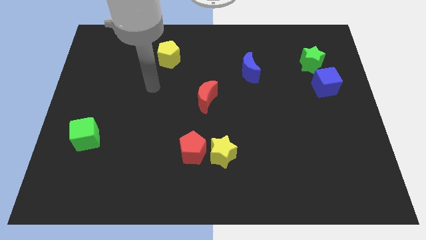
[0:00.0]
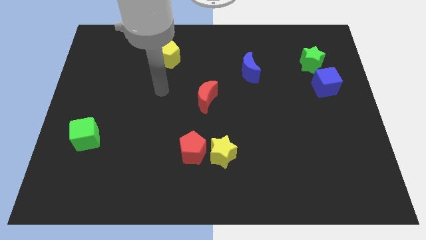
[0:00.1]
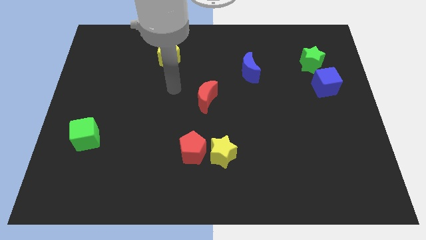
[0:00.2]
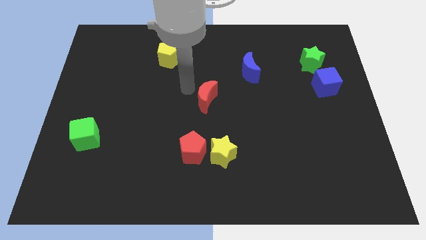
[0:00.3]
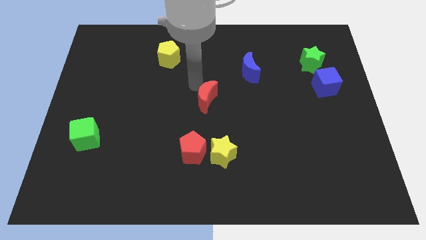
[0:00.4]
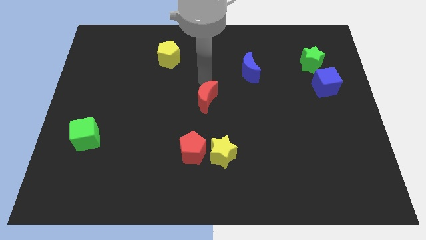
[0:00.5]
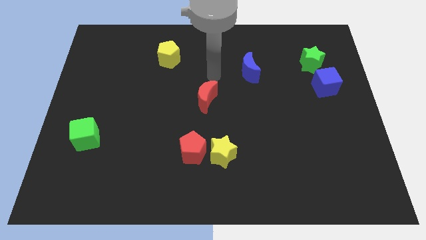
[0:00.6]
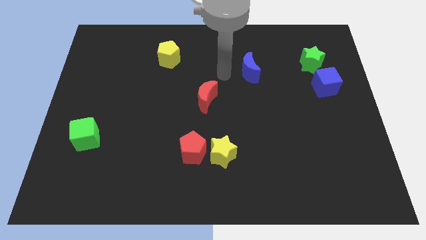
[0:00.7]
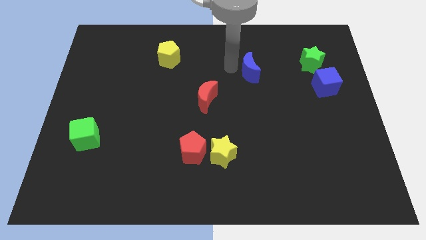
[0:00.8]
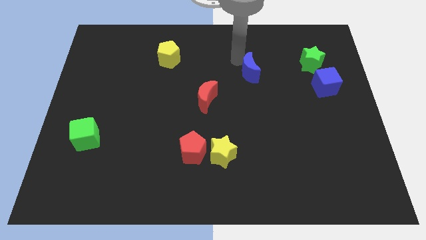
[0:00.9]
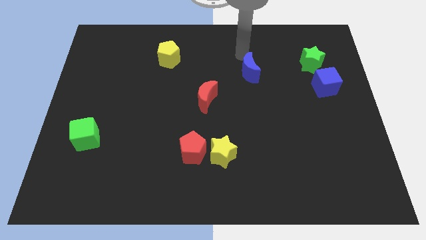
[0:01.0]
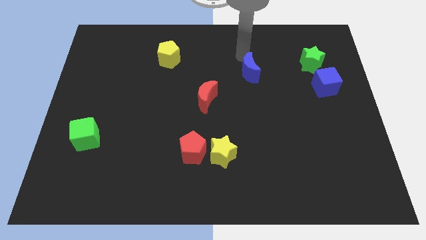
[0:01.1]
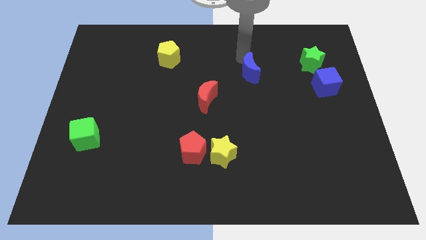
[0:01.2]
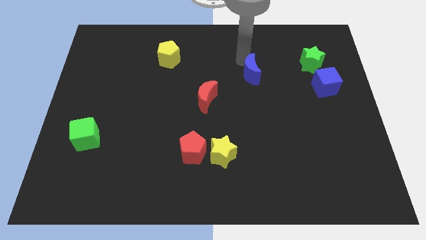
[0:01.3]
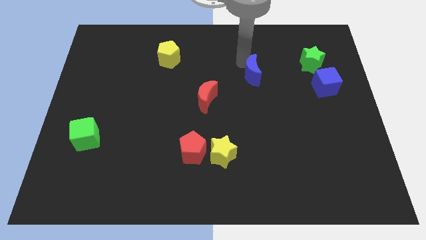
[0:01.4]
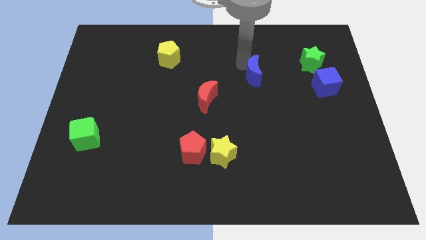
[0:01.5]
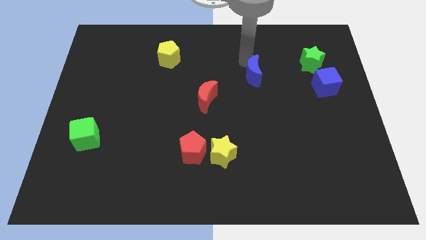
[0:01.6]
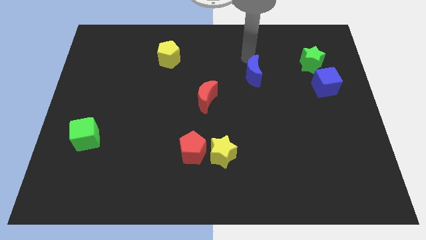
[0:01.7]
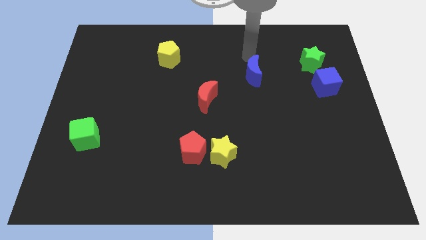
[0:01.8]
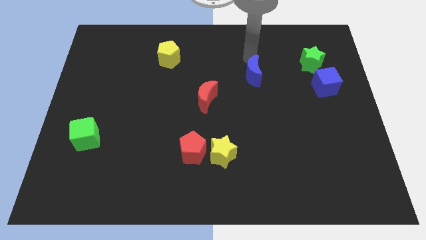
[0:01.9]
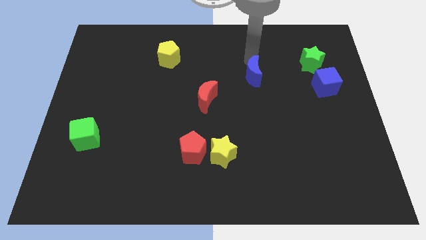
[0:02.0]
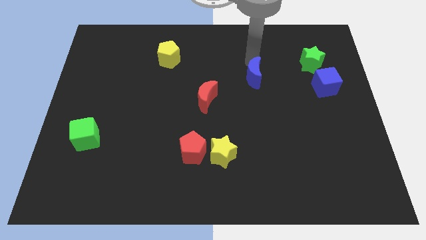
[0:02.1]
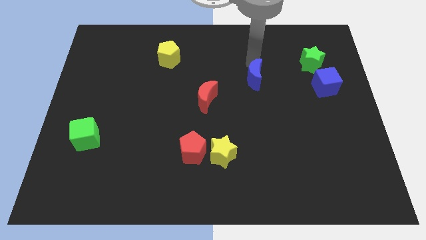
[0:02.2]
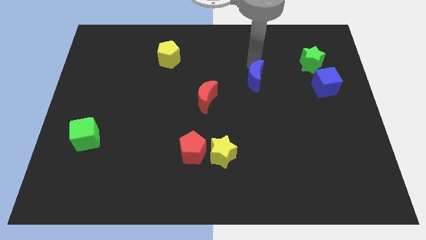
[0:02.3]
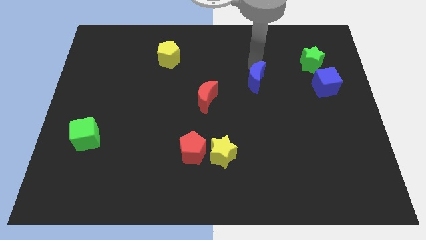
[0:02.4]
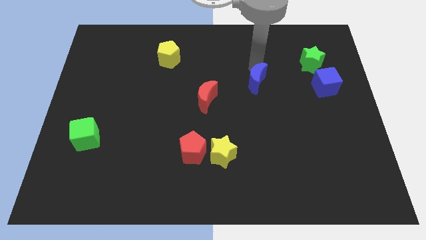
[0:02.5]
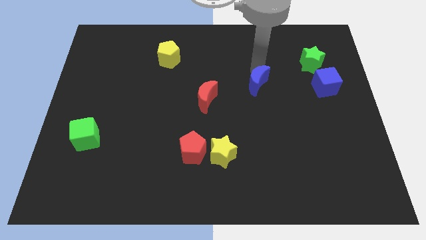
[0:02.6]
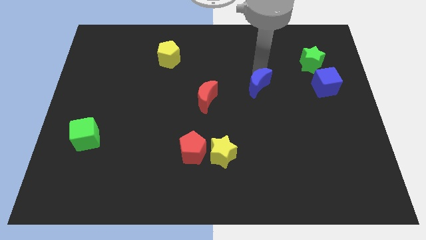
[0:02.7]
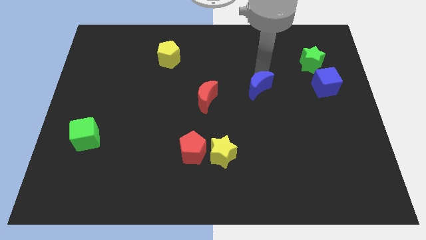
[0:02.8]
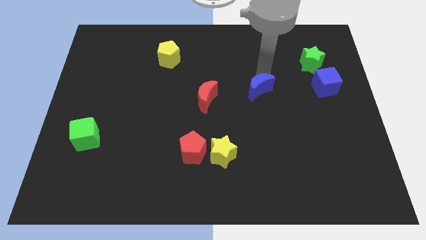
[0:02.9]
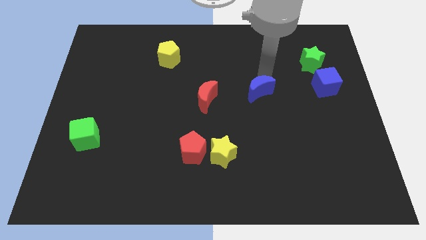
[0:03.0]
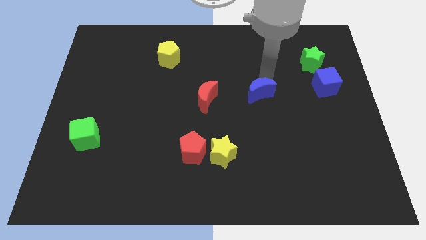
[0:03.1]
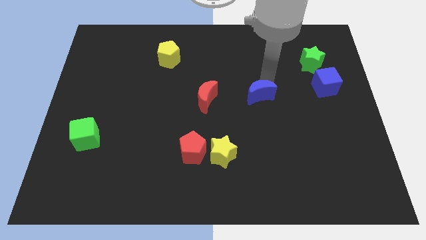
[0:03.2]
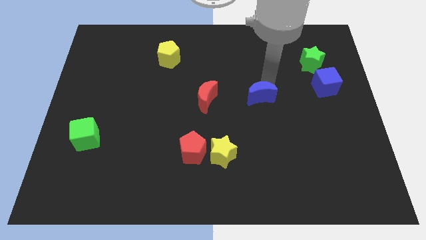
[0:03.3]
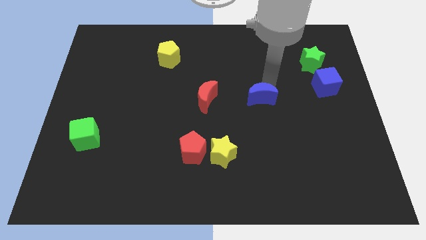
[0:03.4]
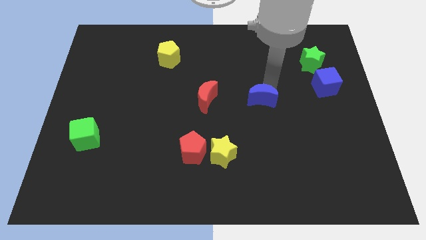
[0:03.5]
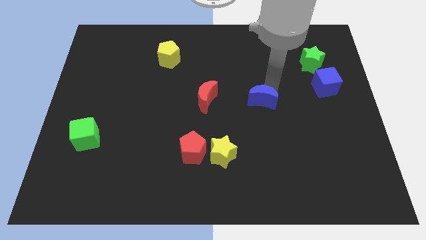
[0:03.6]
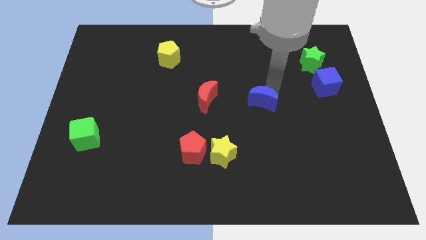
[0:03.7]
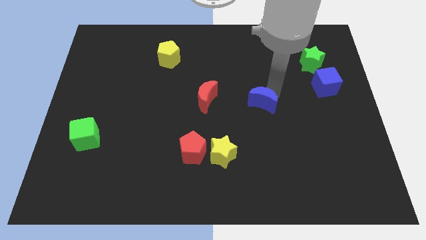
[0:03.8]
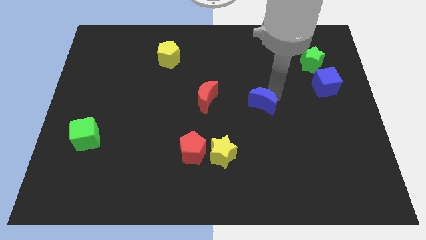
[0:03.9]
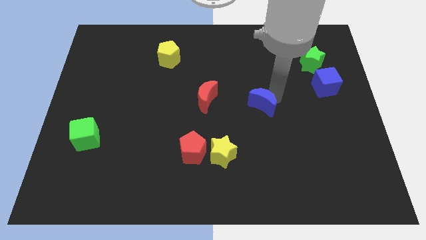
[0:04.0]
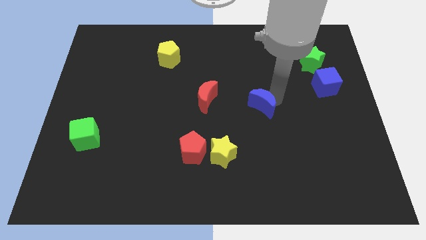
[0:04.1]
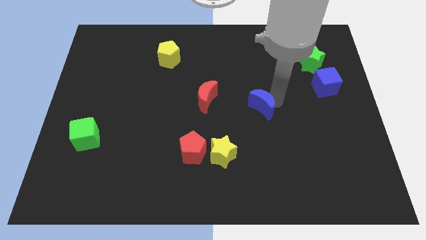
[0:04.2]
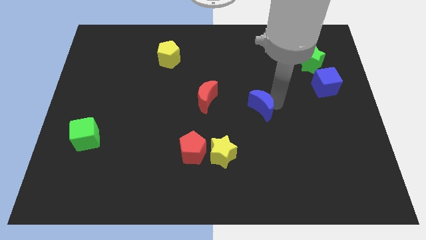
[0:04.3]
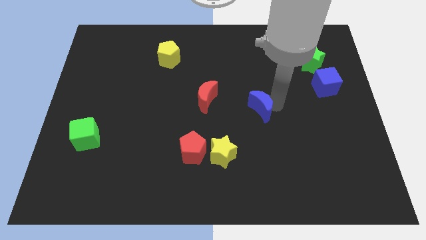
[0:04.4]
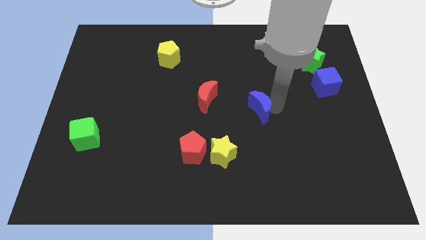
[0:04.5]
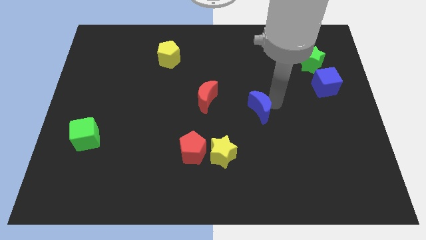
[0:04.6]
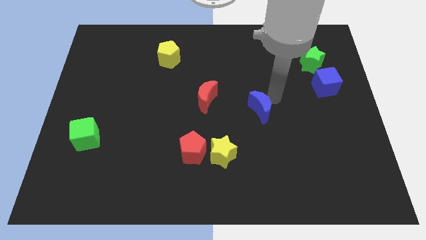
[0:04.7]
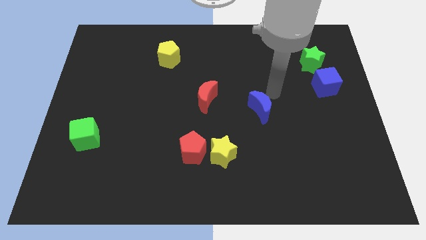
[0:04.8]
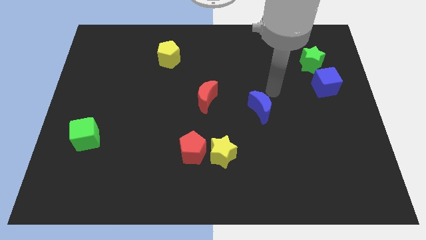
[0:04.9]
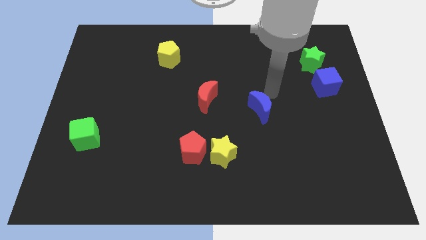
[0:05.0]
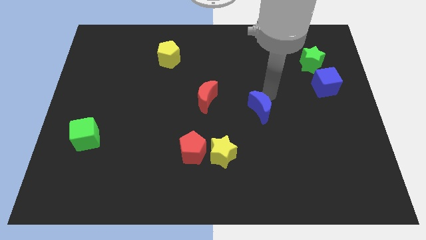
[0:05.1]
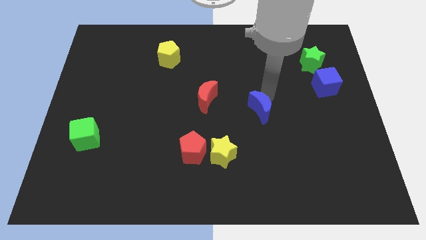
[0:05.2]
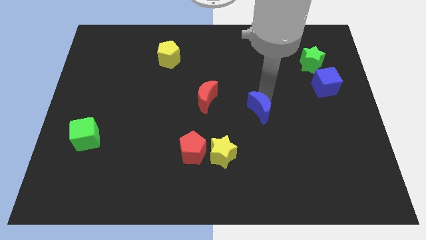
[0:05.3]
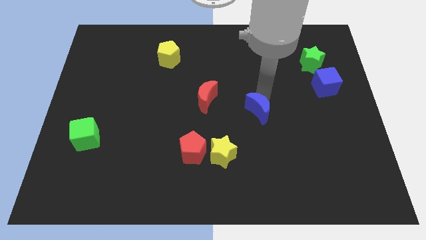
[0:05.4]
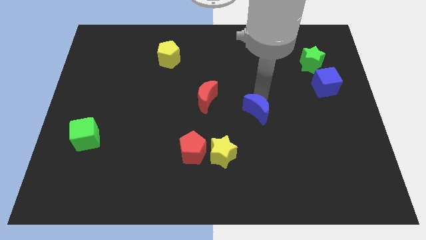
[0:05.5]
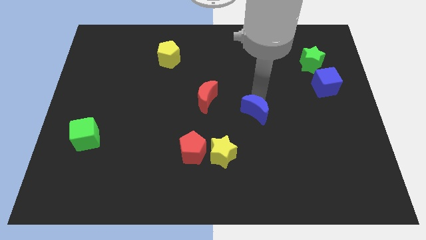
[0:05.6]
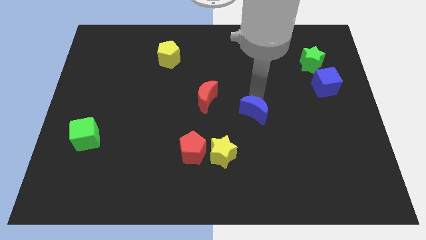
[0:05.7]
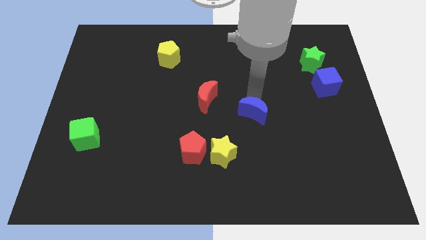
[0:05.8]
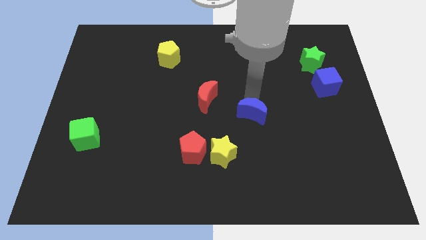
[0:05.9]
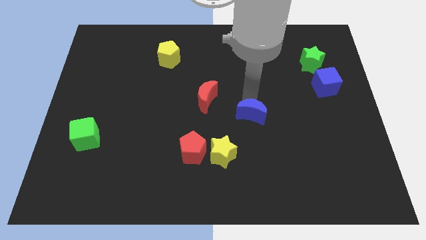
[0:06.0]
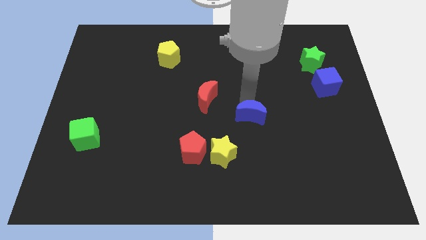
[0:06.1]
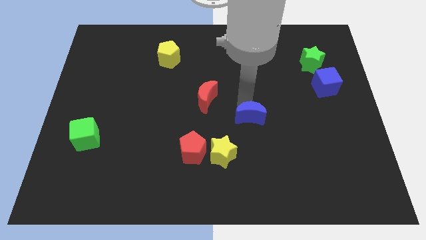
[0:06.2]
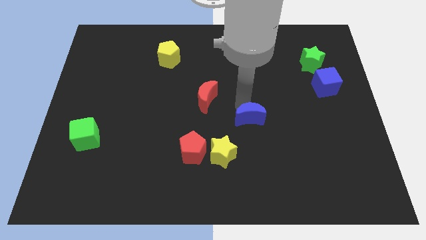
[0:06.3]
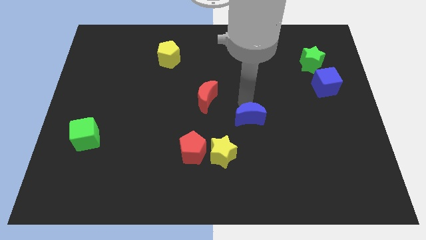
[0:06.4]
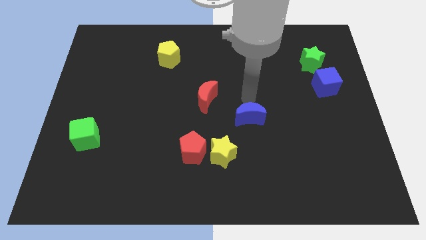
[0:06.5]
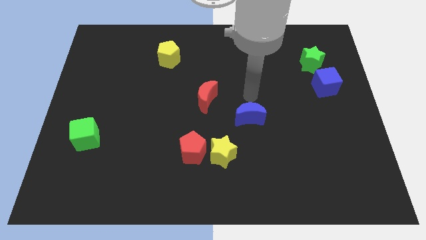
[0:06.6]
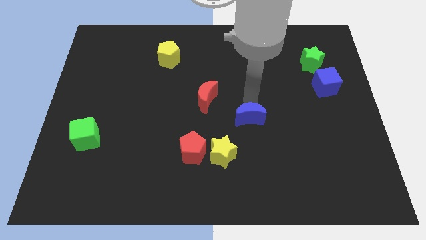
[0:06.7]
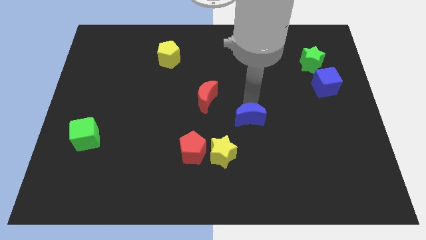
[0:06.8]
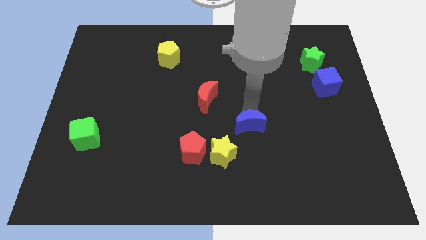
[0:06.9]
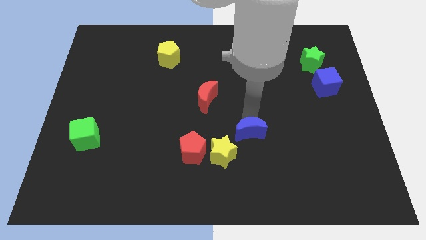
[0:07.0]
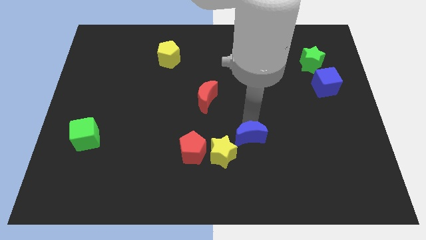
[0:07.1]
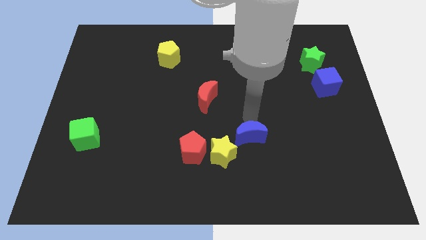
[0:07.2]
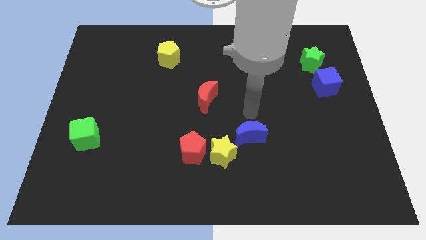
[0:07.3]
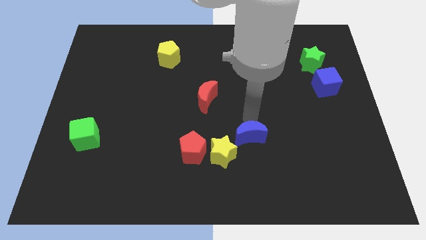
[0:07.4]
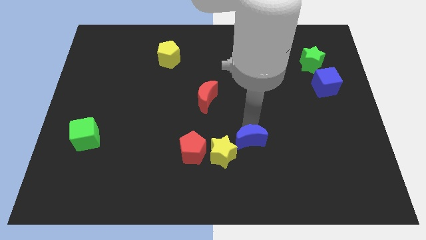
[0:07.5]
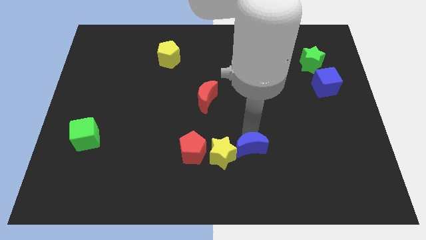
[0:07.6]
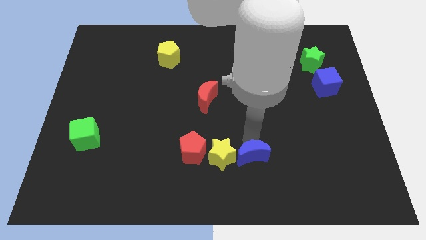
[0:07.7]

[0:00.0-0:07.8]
slide the blue moon to the bottom right side of the yellow star
